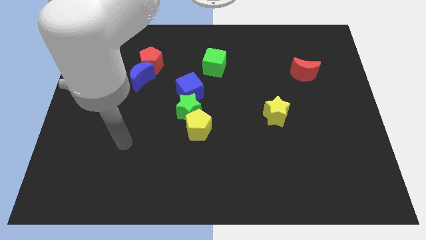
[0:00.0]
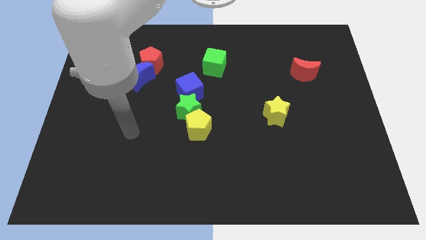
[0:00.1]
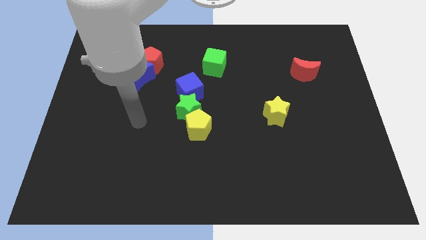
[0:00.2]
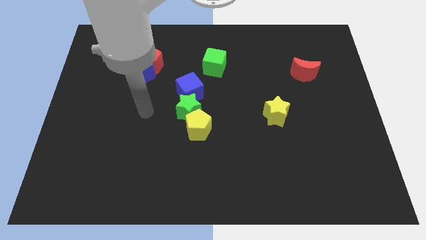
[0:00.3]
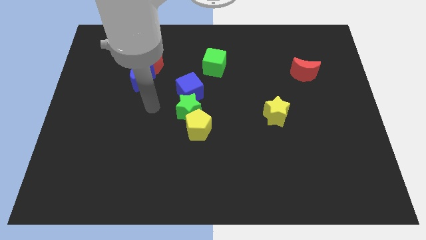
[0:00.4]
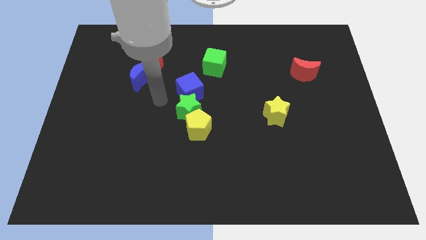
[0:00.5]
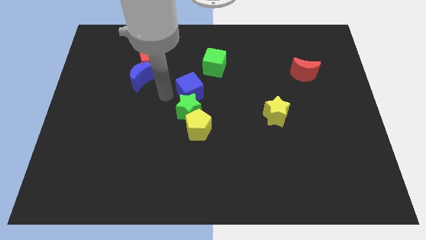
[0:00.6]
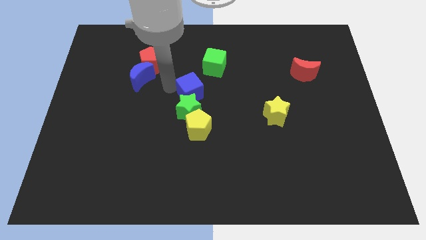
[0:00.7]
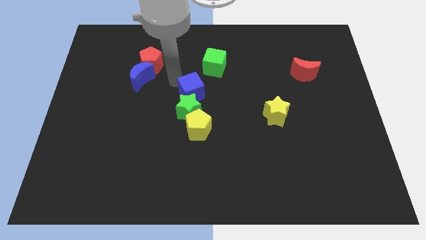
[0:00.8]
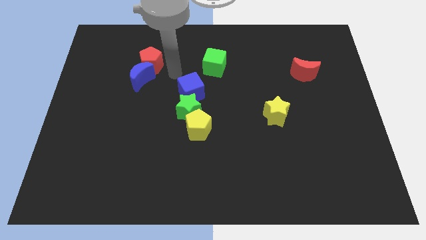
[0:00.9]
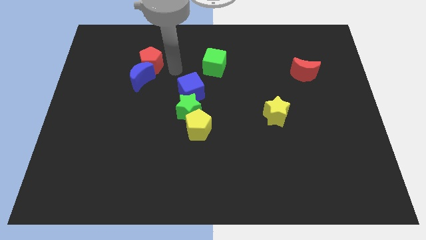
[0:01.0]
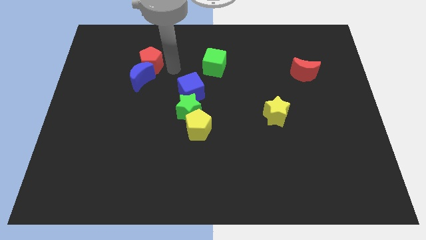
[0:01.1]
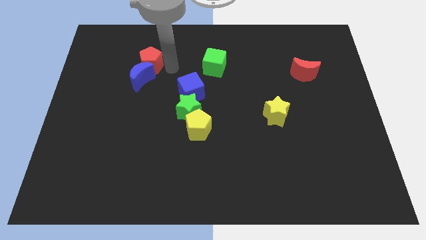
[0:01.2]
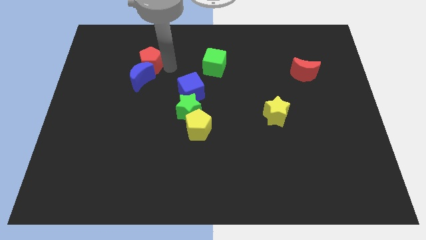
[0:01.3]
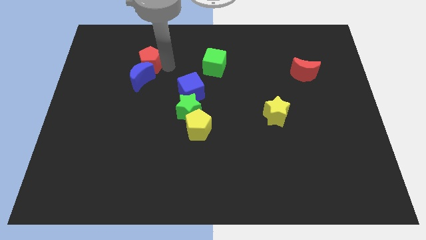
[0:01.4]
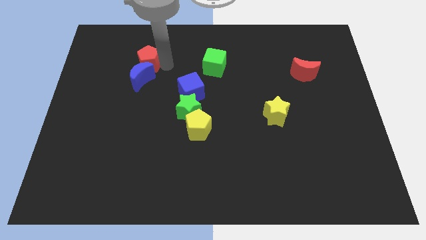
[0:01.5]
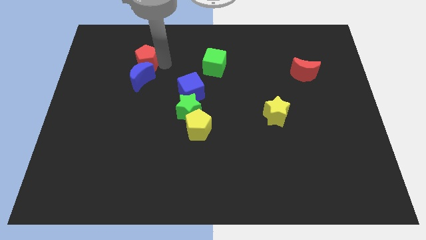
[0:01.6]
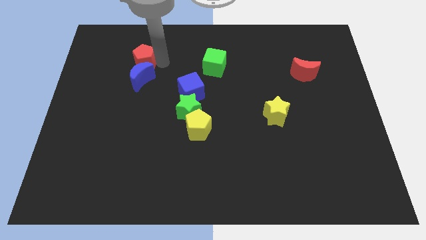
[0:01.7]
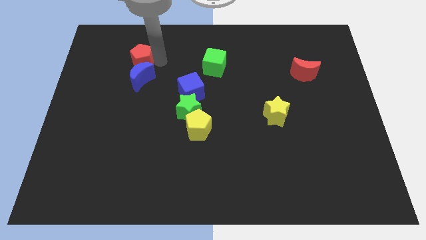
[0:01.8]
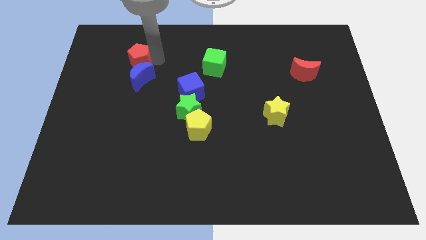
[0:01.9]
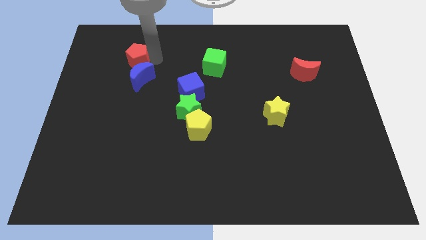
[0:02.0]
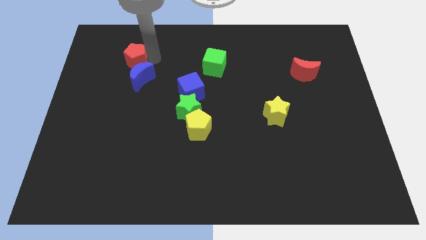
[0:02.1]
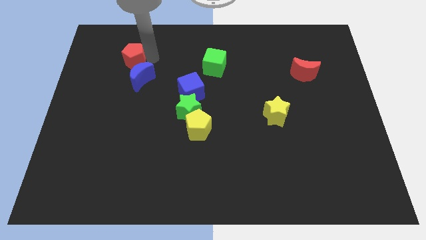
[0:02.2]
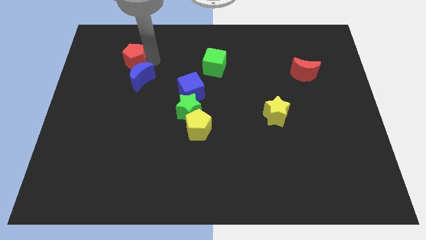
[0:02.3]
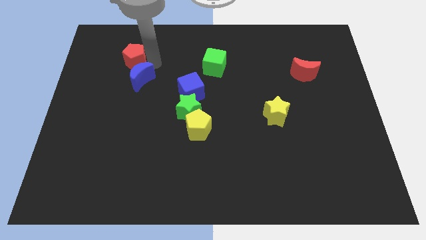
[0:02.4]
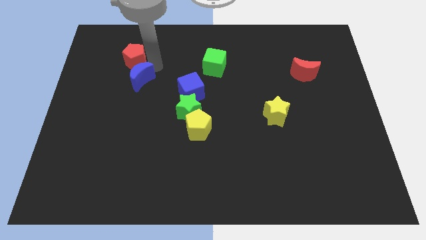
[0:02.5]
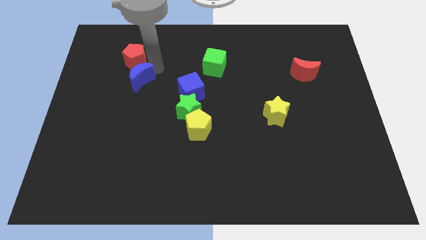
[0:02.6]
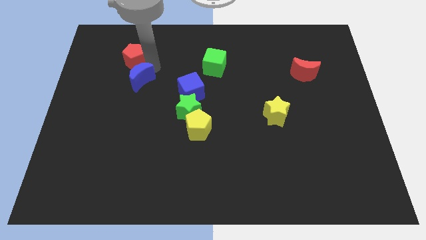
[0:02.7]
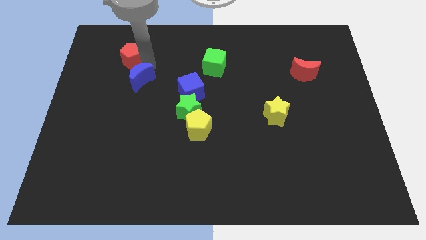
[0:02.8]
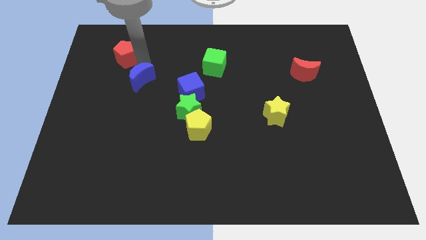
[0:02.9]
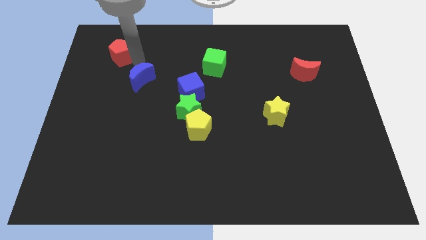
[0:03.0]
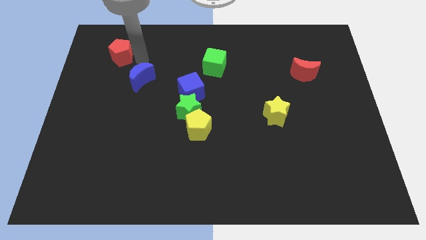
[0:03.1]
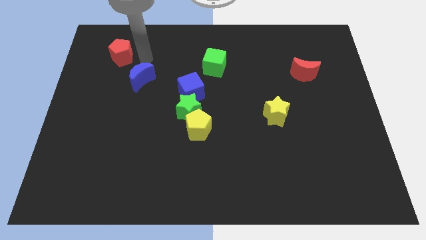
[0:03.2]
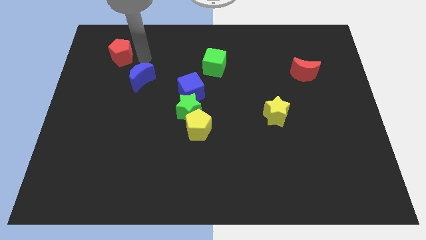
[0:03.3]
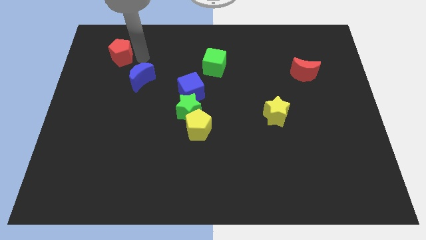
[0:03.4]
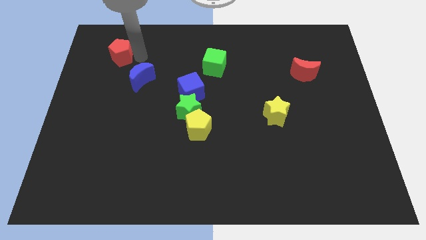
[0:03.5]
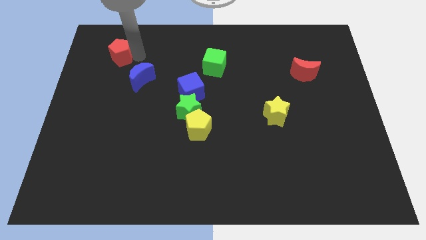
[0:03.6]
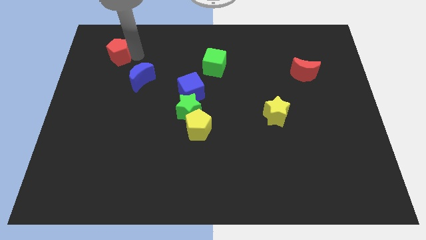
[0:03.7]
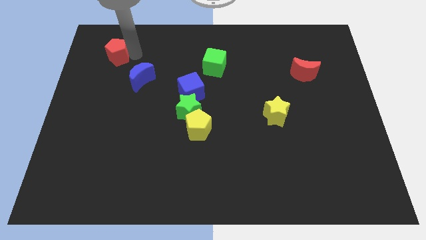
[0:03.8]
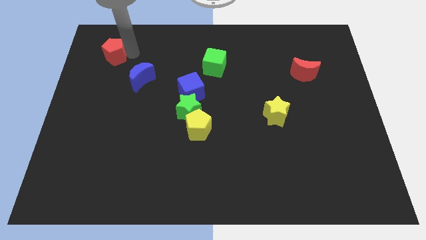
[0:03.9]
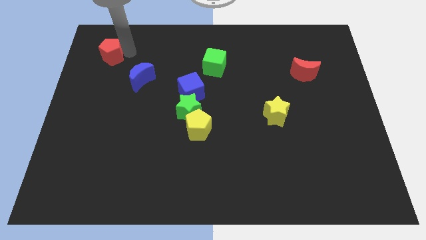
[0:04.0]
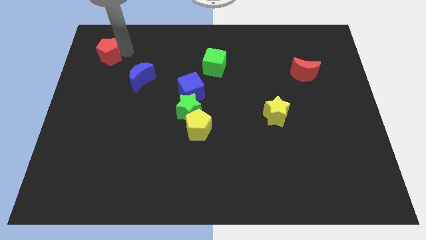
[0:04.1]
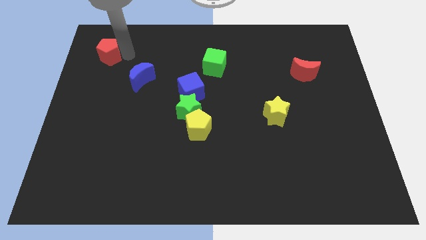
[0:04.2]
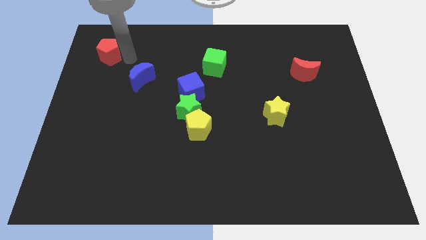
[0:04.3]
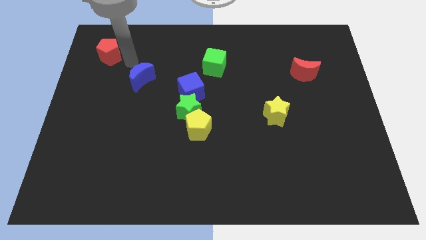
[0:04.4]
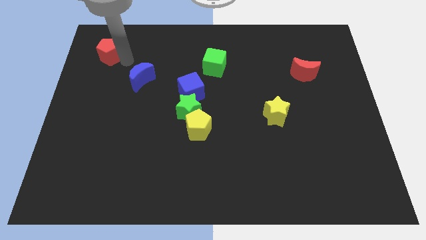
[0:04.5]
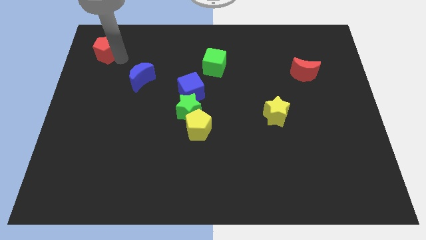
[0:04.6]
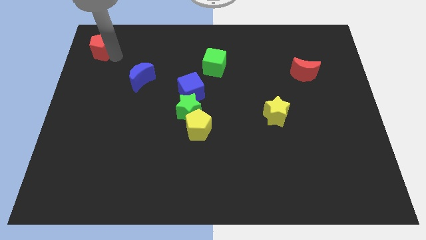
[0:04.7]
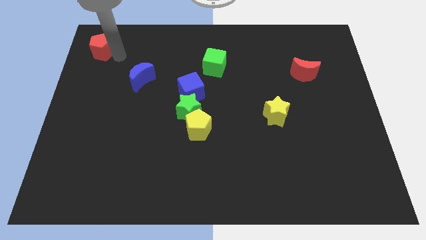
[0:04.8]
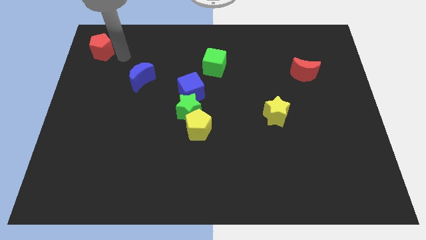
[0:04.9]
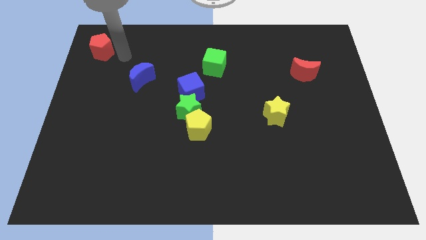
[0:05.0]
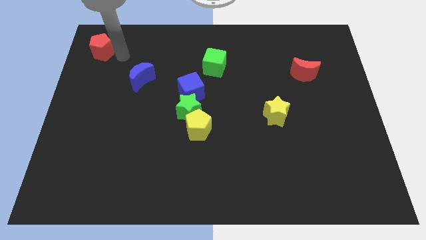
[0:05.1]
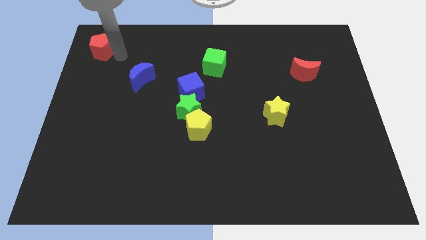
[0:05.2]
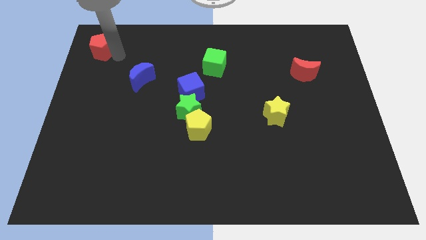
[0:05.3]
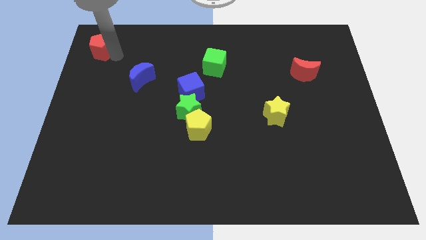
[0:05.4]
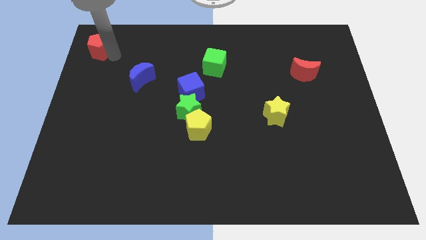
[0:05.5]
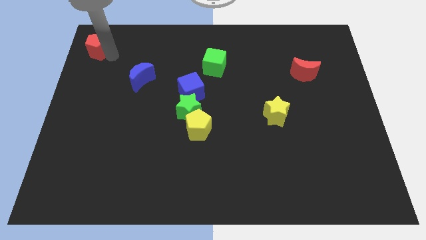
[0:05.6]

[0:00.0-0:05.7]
slide the red pentagon to the top left of the board
